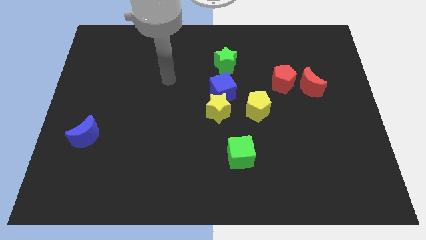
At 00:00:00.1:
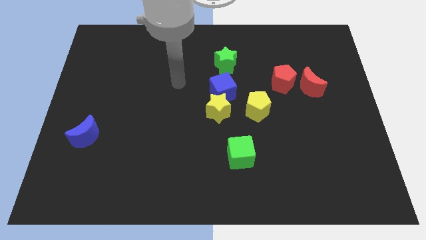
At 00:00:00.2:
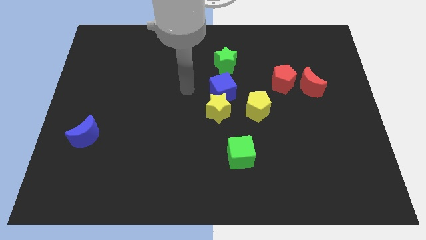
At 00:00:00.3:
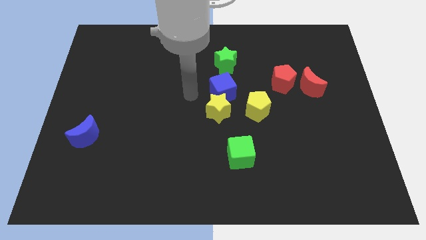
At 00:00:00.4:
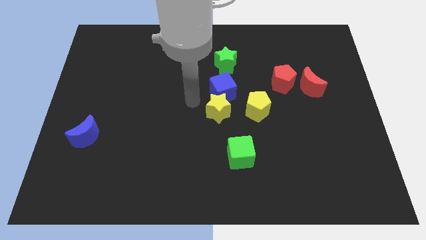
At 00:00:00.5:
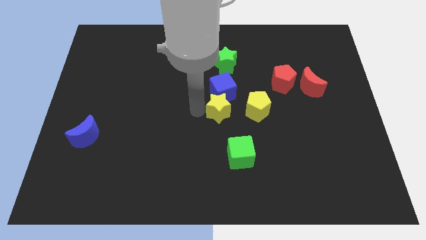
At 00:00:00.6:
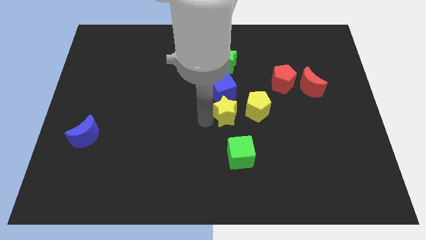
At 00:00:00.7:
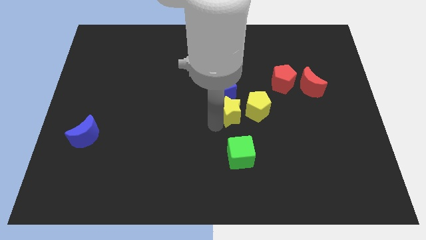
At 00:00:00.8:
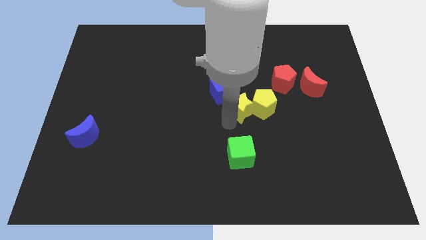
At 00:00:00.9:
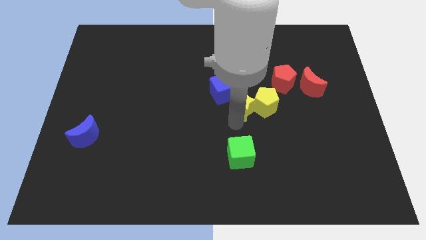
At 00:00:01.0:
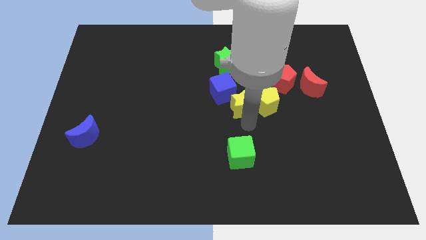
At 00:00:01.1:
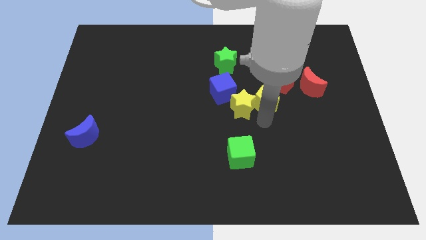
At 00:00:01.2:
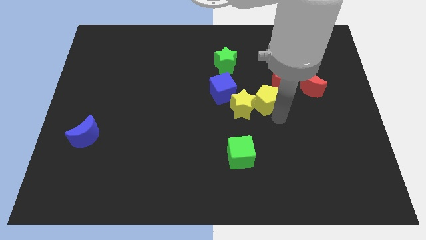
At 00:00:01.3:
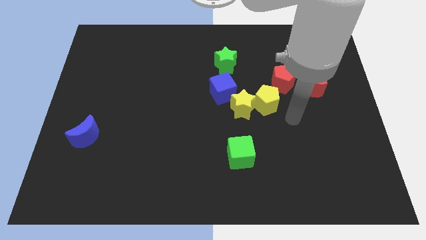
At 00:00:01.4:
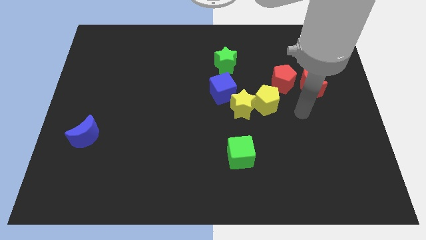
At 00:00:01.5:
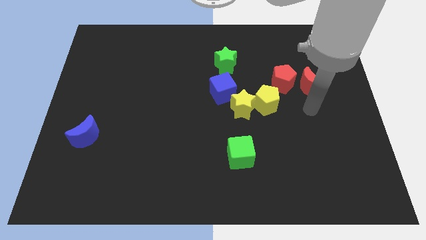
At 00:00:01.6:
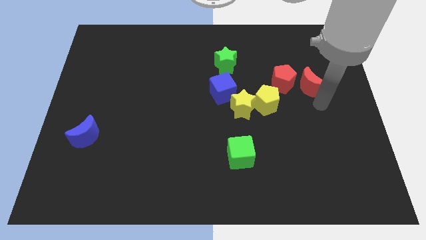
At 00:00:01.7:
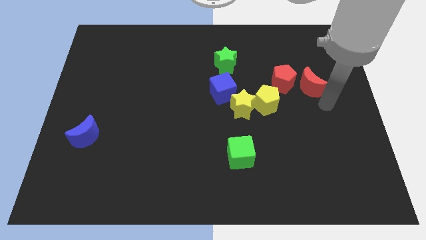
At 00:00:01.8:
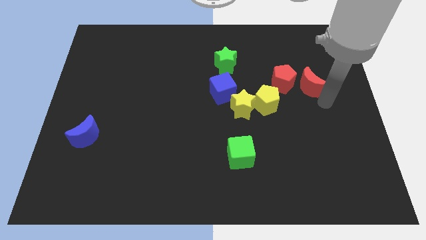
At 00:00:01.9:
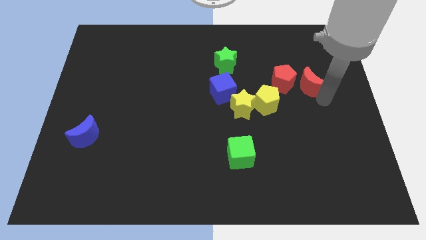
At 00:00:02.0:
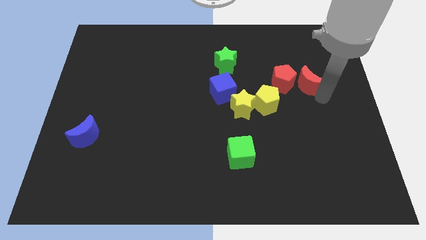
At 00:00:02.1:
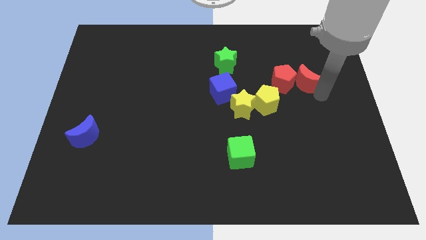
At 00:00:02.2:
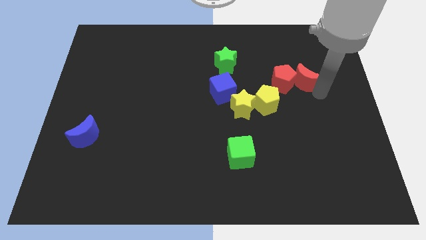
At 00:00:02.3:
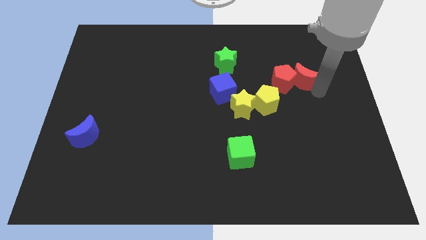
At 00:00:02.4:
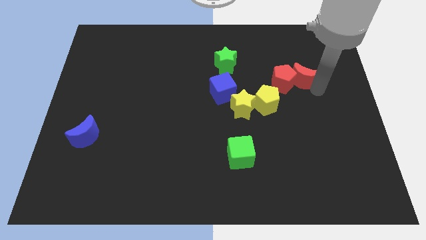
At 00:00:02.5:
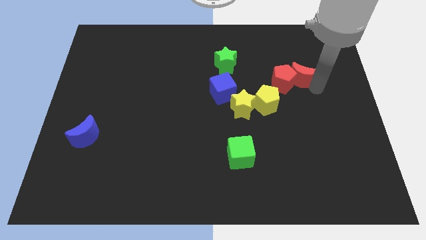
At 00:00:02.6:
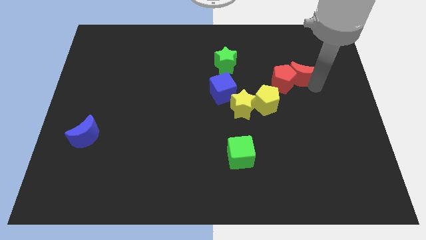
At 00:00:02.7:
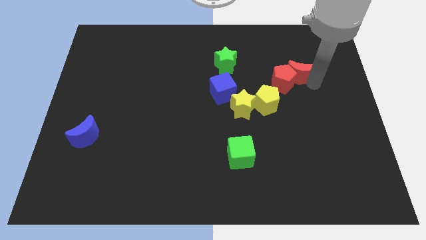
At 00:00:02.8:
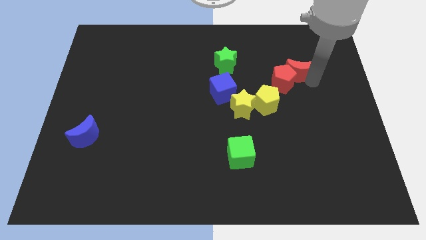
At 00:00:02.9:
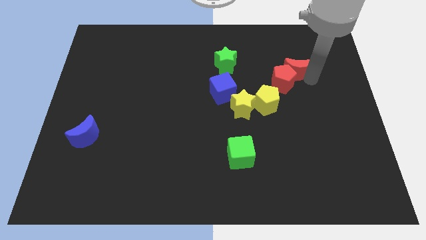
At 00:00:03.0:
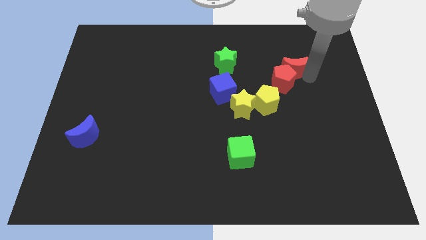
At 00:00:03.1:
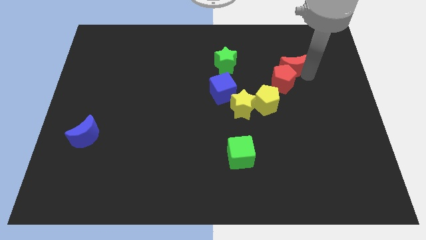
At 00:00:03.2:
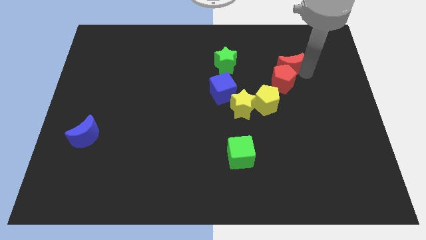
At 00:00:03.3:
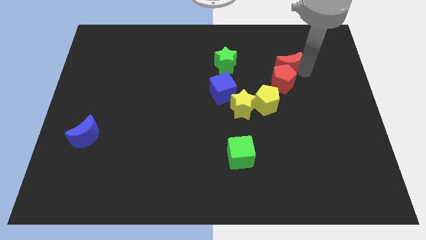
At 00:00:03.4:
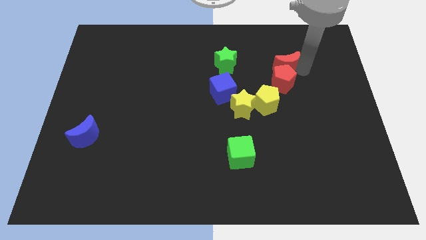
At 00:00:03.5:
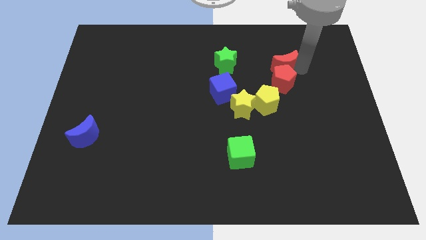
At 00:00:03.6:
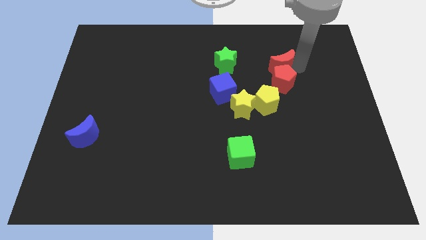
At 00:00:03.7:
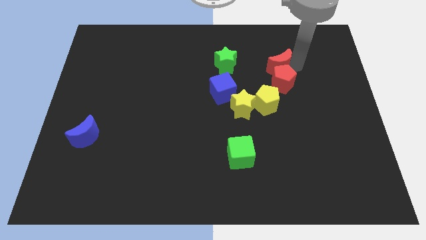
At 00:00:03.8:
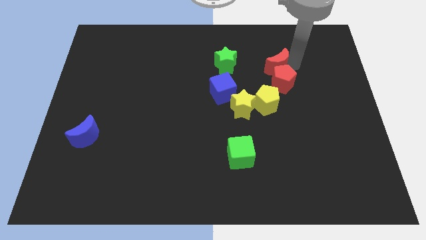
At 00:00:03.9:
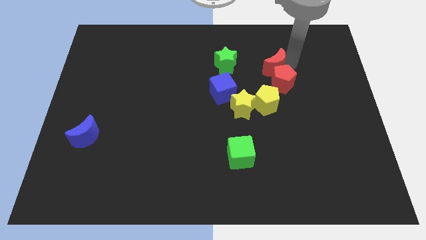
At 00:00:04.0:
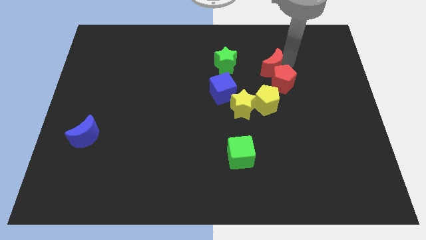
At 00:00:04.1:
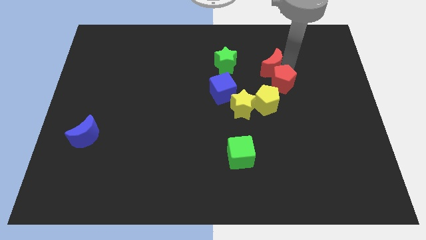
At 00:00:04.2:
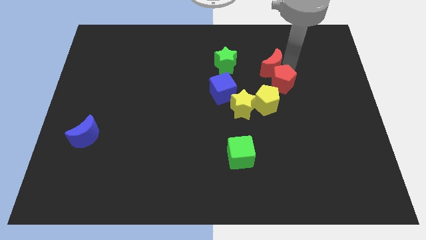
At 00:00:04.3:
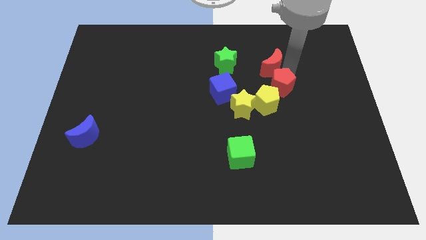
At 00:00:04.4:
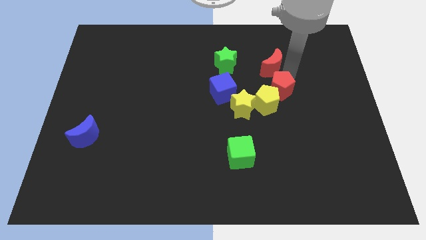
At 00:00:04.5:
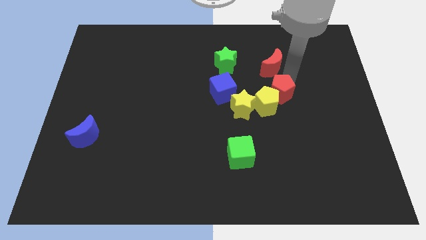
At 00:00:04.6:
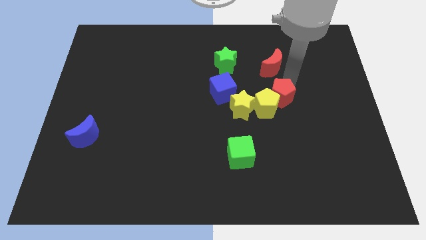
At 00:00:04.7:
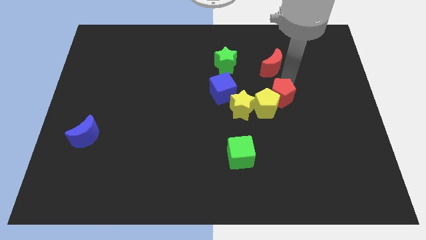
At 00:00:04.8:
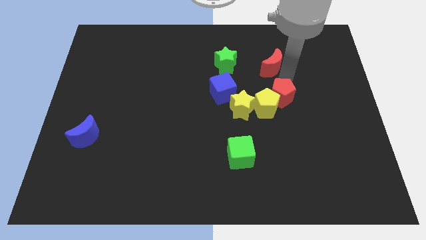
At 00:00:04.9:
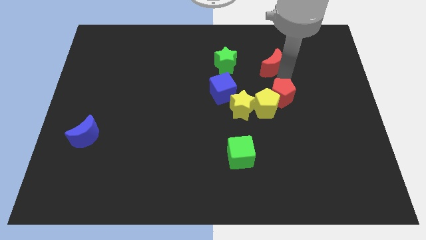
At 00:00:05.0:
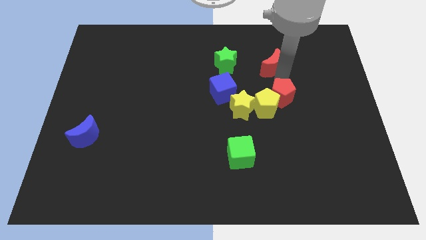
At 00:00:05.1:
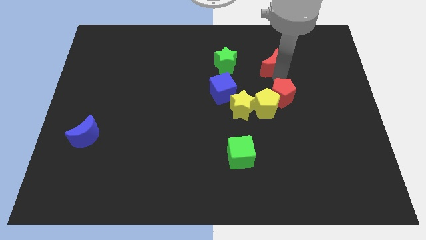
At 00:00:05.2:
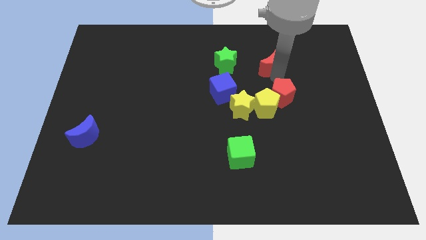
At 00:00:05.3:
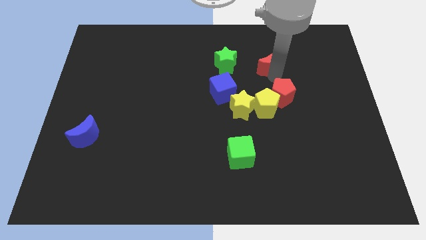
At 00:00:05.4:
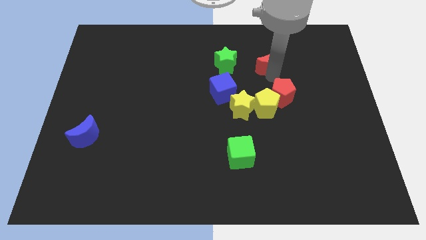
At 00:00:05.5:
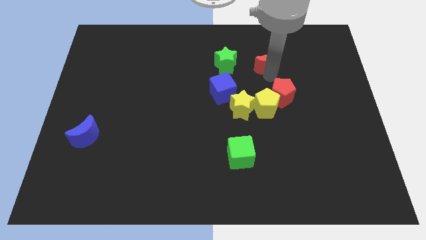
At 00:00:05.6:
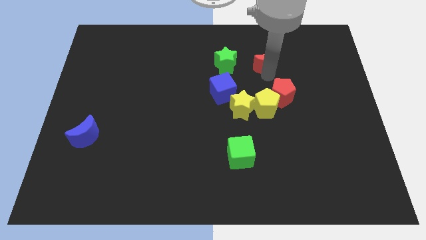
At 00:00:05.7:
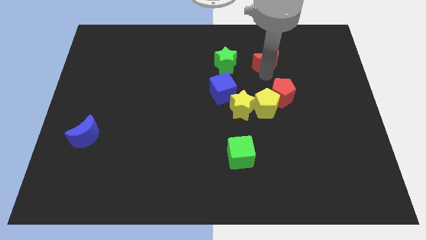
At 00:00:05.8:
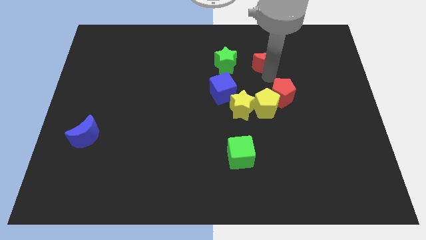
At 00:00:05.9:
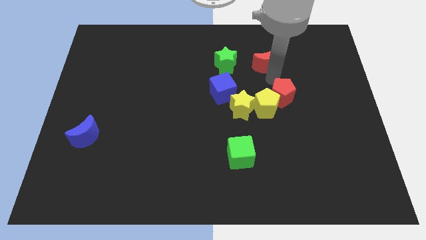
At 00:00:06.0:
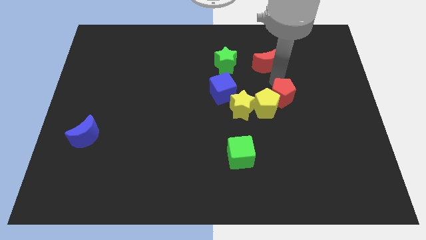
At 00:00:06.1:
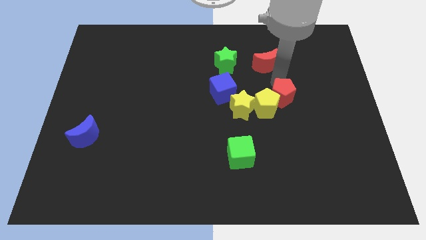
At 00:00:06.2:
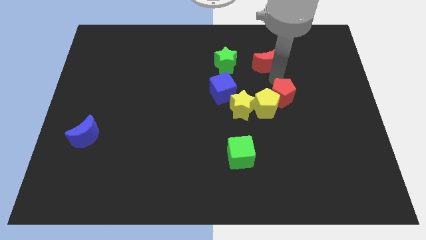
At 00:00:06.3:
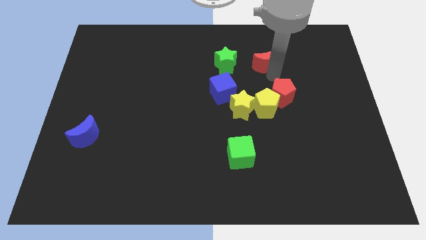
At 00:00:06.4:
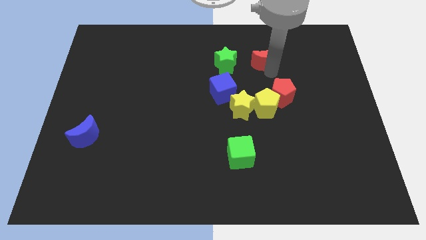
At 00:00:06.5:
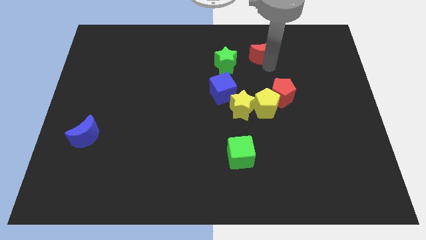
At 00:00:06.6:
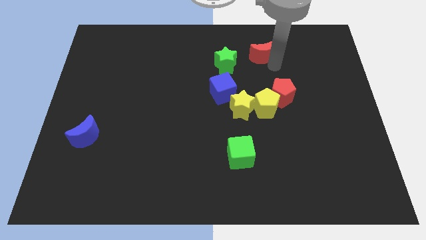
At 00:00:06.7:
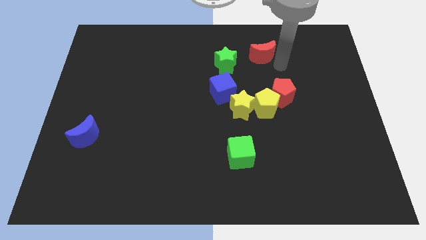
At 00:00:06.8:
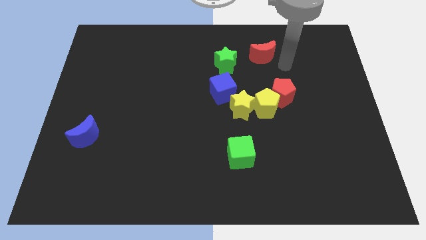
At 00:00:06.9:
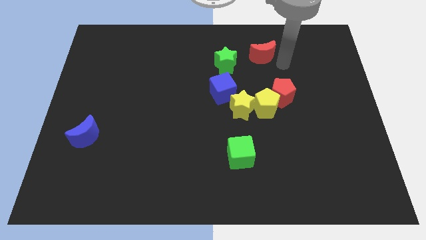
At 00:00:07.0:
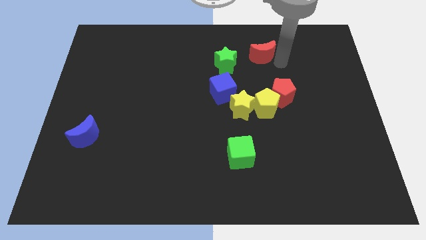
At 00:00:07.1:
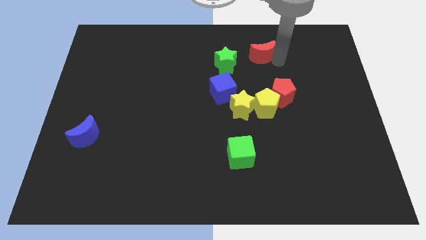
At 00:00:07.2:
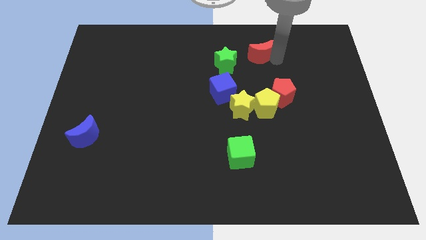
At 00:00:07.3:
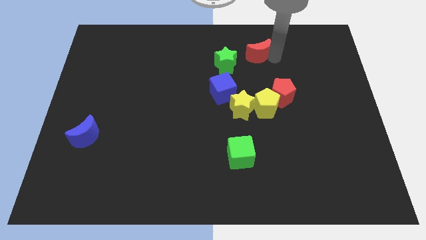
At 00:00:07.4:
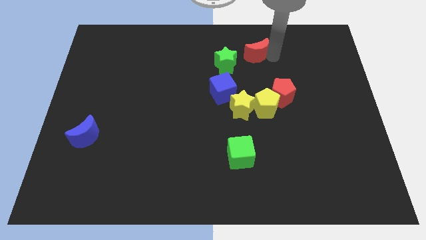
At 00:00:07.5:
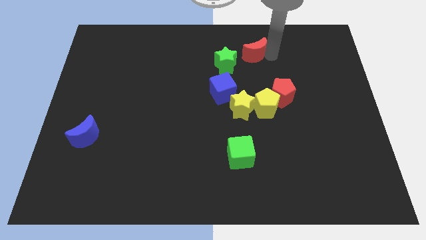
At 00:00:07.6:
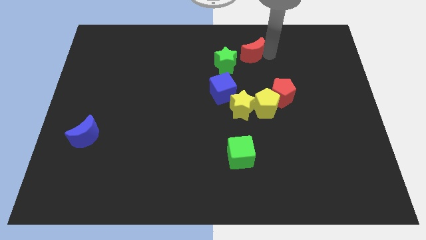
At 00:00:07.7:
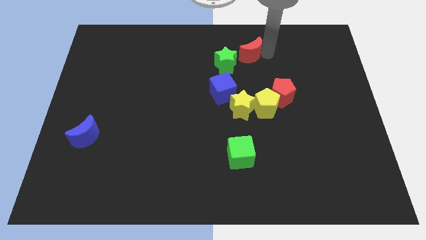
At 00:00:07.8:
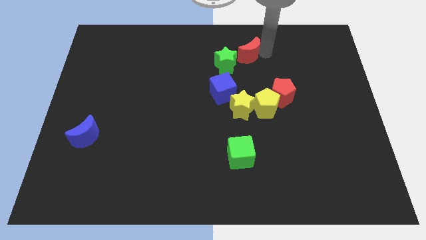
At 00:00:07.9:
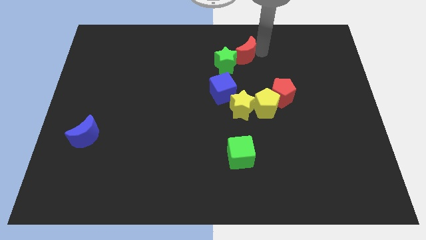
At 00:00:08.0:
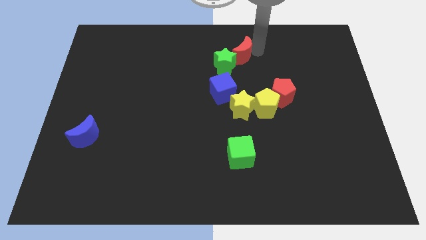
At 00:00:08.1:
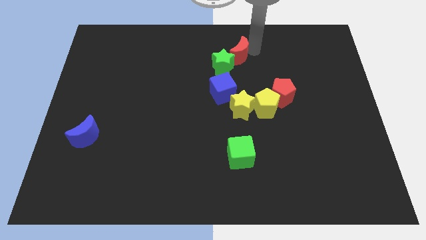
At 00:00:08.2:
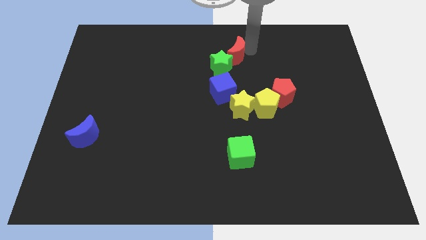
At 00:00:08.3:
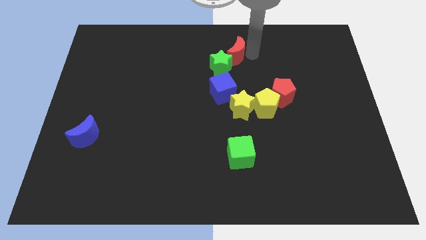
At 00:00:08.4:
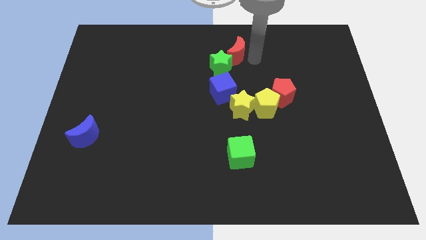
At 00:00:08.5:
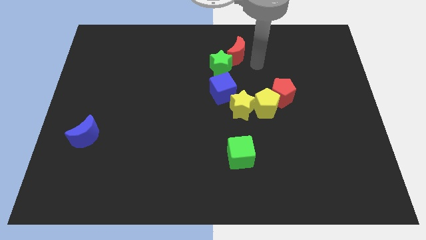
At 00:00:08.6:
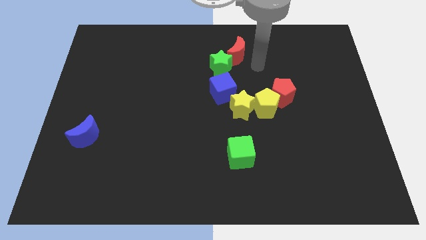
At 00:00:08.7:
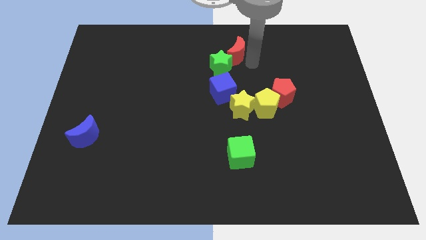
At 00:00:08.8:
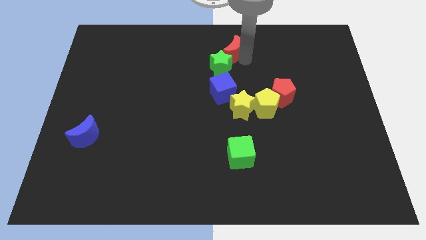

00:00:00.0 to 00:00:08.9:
push the red moon to the top side
